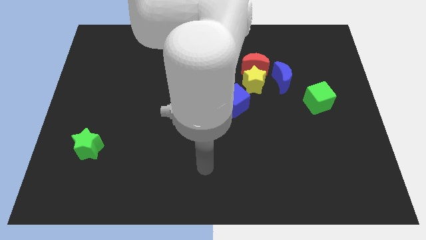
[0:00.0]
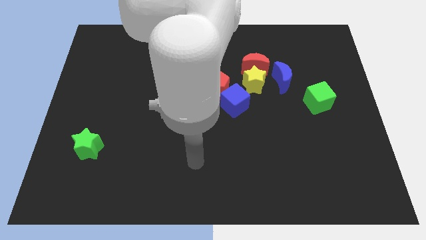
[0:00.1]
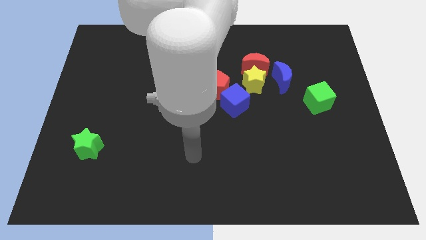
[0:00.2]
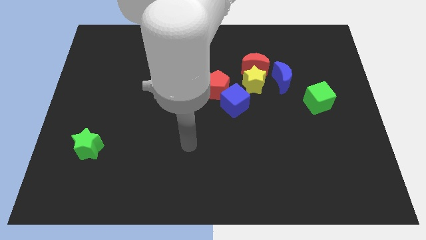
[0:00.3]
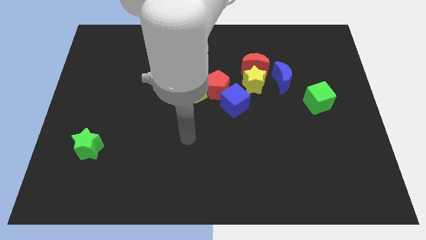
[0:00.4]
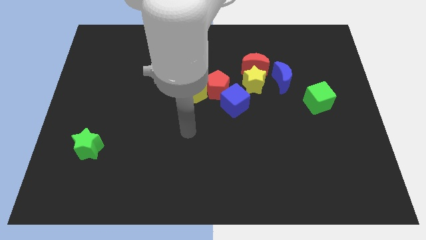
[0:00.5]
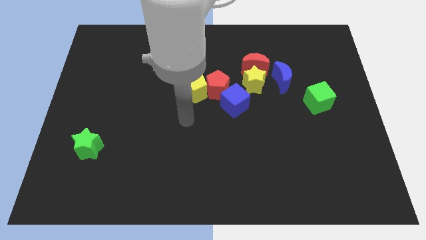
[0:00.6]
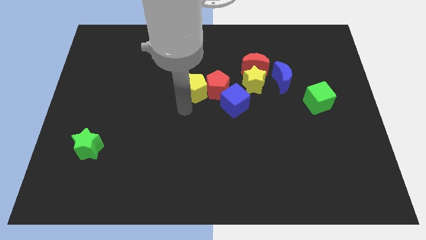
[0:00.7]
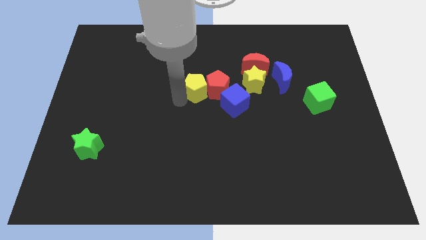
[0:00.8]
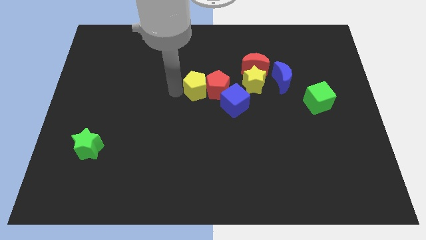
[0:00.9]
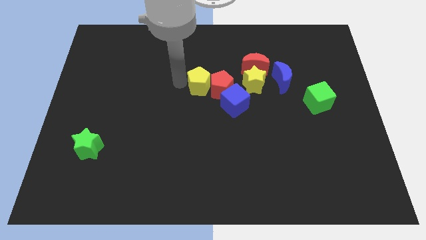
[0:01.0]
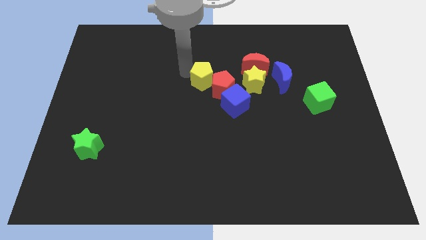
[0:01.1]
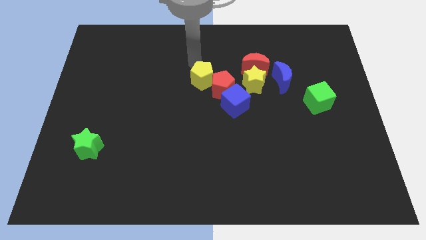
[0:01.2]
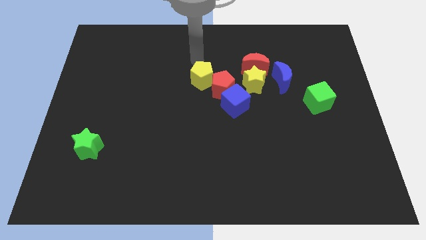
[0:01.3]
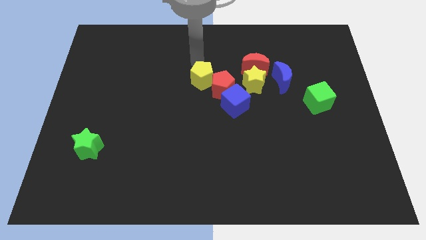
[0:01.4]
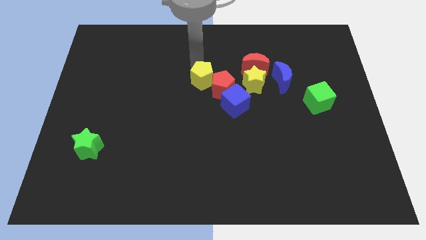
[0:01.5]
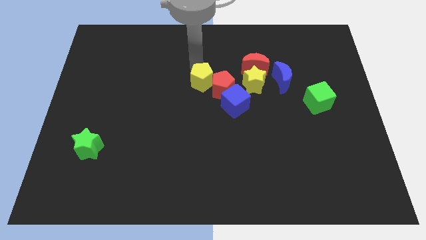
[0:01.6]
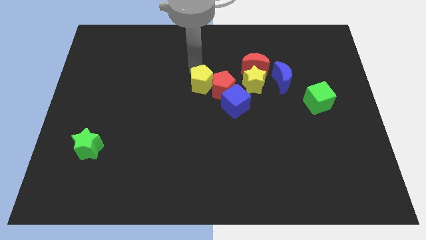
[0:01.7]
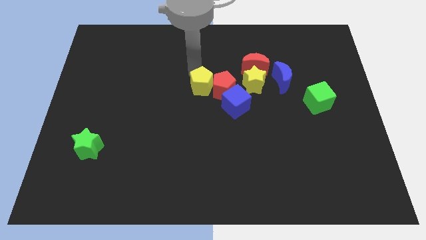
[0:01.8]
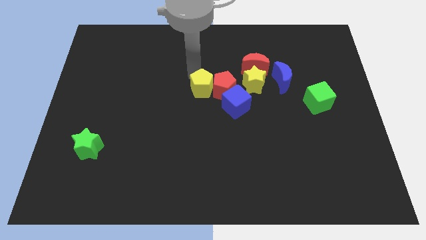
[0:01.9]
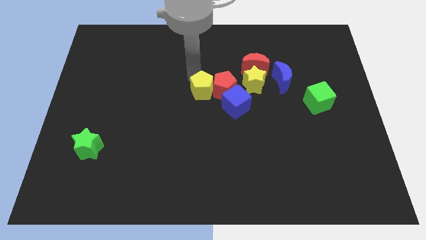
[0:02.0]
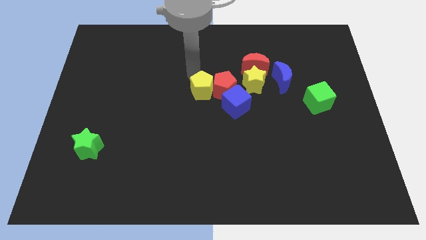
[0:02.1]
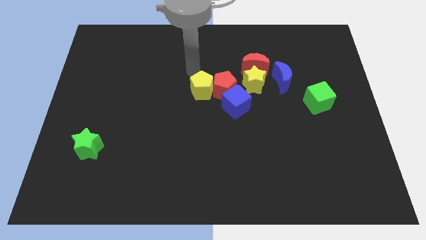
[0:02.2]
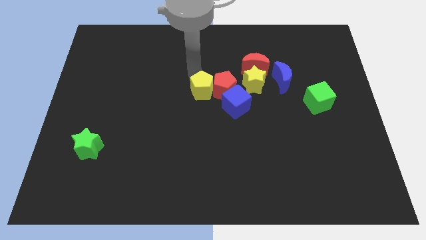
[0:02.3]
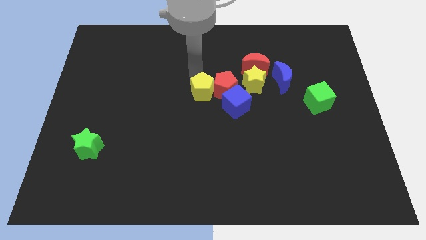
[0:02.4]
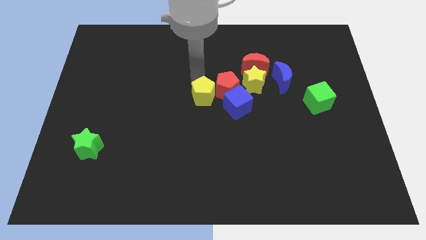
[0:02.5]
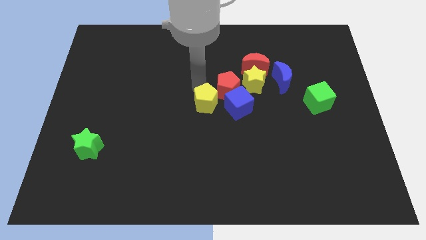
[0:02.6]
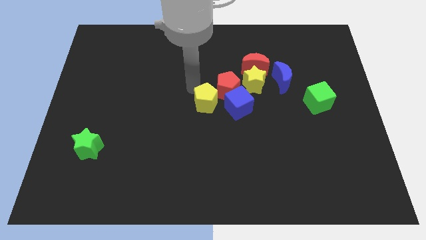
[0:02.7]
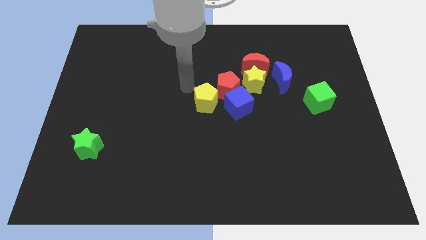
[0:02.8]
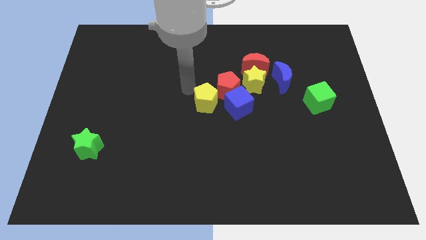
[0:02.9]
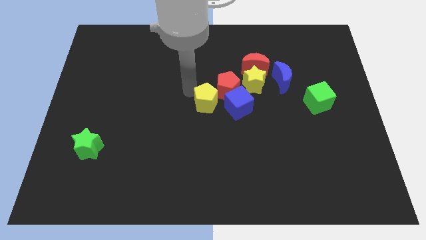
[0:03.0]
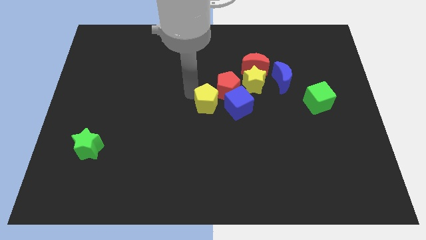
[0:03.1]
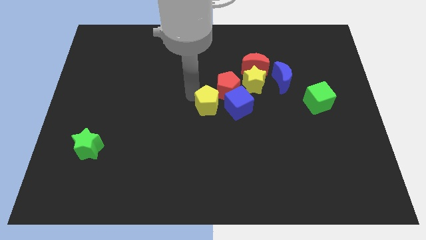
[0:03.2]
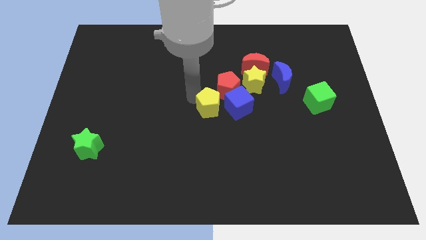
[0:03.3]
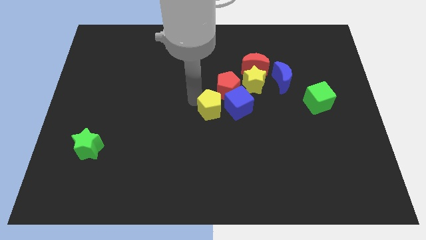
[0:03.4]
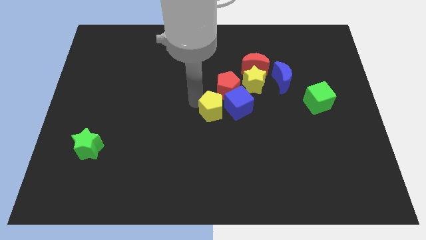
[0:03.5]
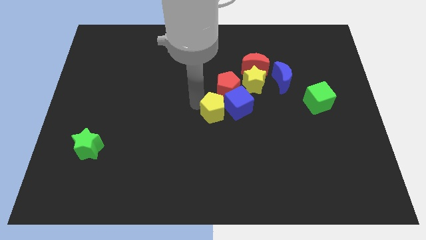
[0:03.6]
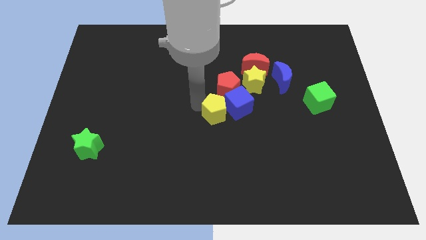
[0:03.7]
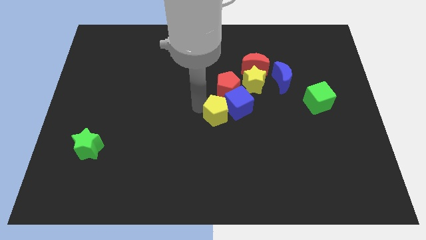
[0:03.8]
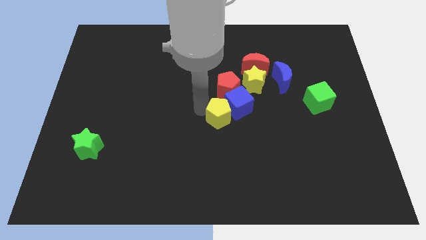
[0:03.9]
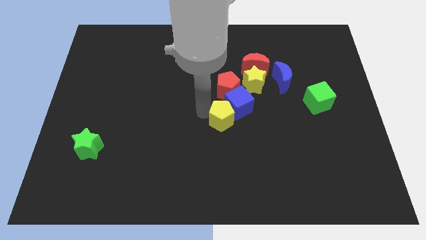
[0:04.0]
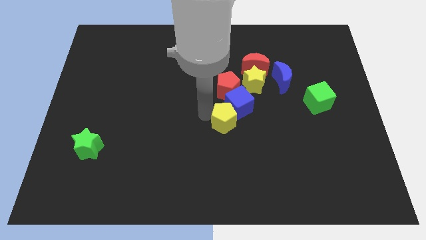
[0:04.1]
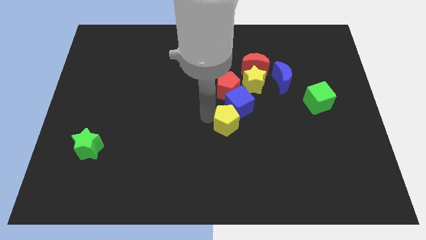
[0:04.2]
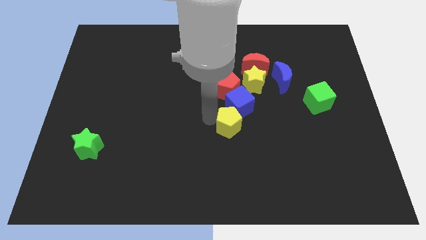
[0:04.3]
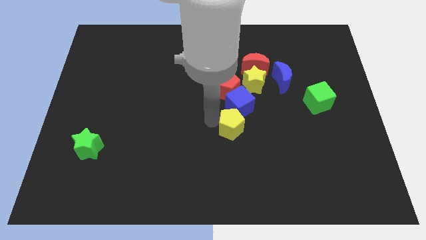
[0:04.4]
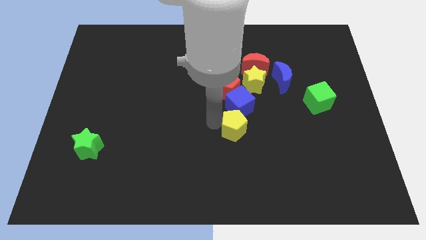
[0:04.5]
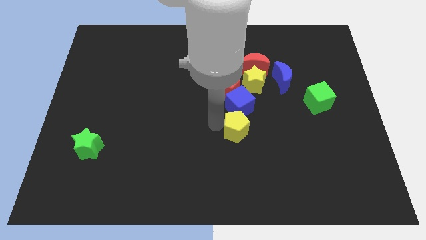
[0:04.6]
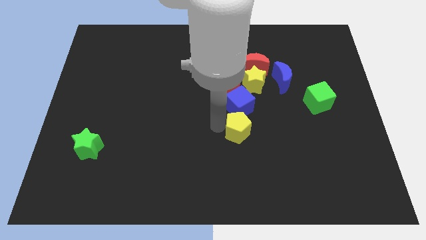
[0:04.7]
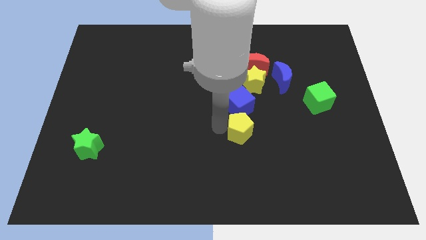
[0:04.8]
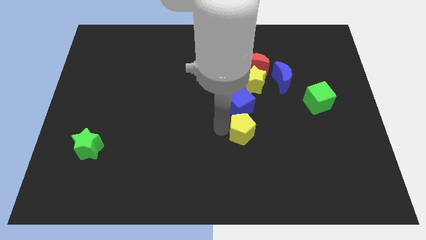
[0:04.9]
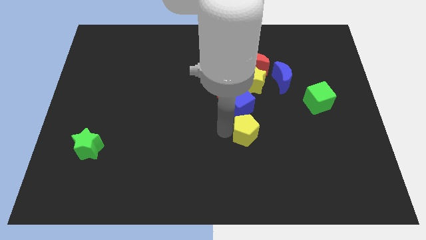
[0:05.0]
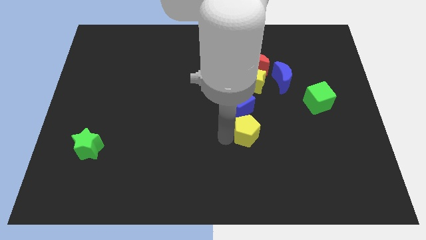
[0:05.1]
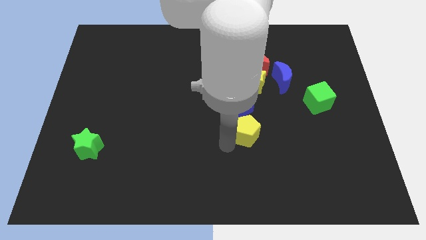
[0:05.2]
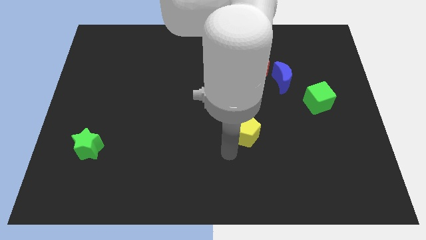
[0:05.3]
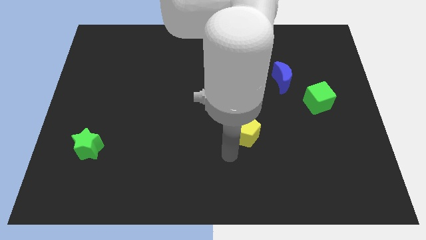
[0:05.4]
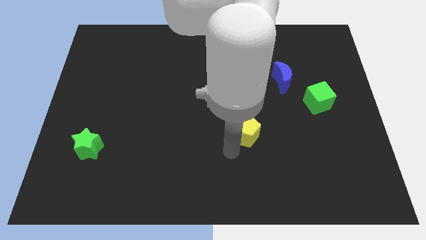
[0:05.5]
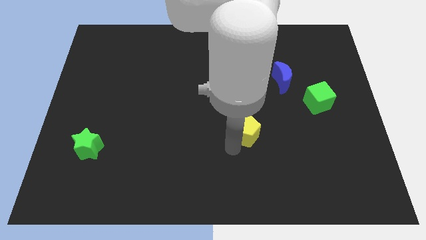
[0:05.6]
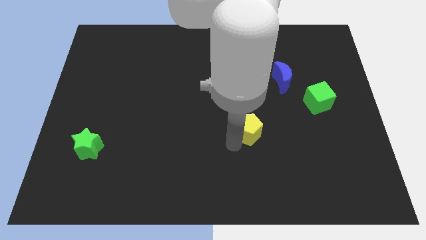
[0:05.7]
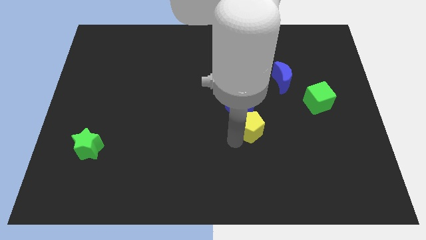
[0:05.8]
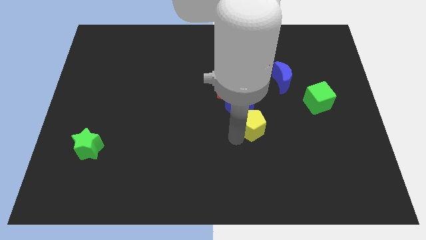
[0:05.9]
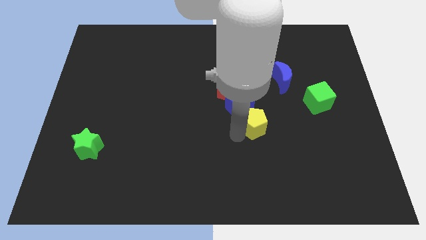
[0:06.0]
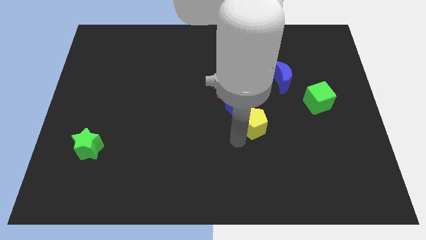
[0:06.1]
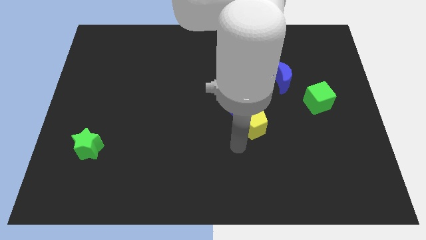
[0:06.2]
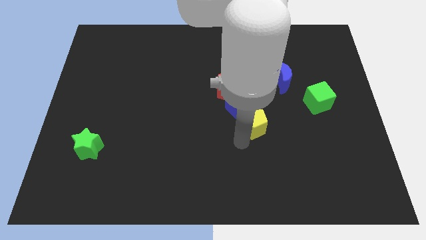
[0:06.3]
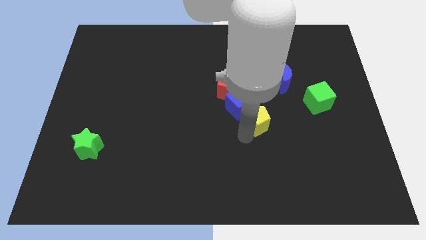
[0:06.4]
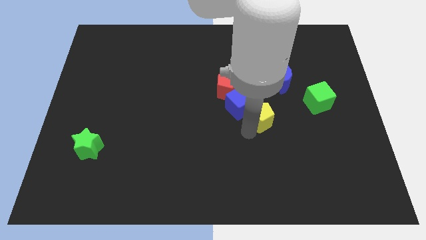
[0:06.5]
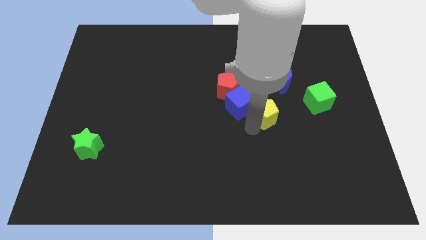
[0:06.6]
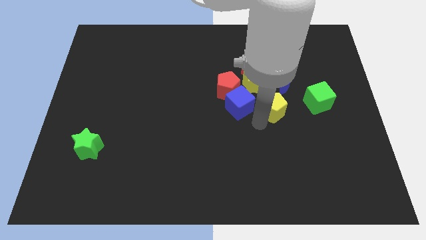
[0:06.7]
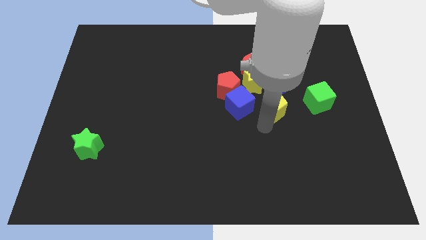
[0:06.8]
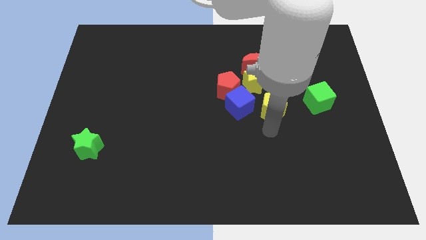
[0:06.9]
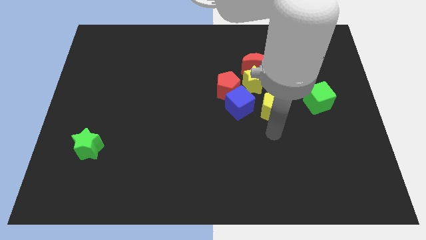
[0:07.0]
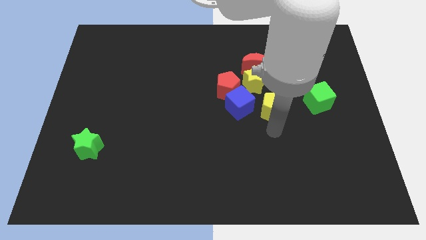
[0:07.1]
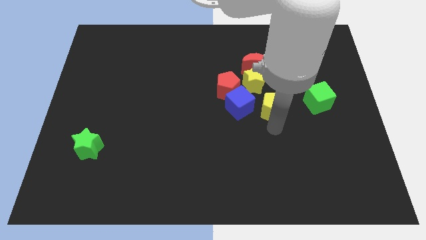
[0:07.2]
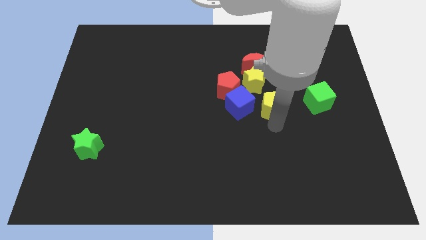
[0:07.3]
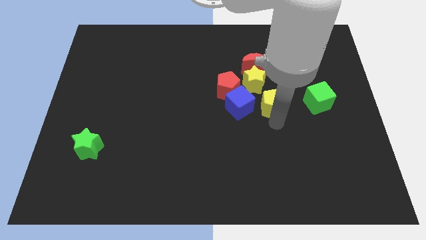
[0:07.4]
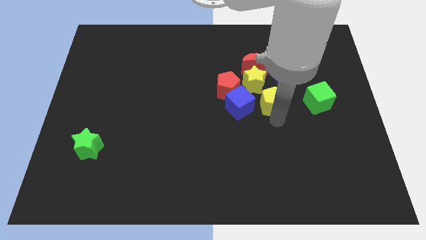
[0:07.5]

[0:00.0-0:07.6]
push the yellow pentagon to the right of the red pentagon
